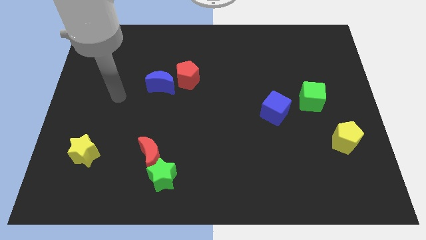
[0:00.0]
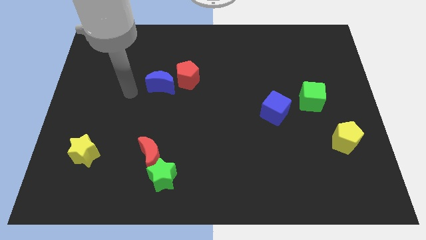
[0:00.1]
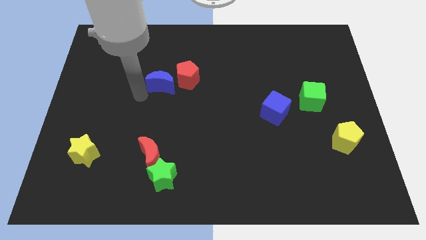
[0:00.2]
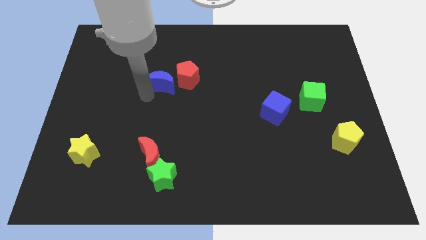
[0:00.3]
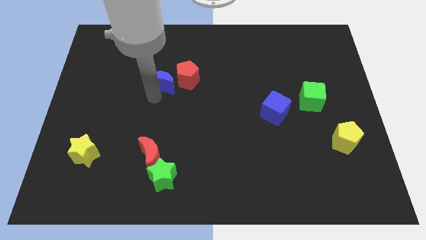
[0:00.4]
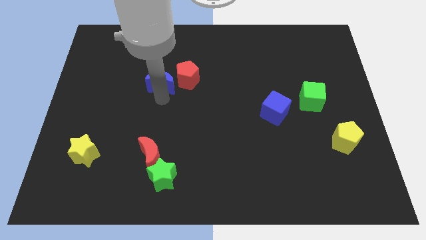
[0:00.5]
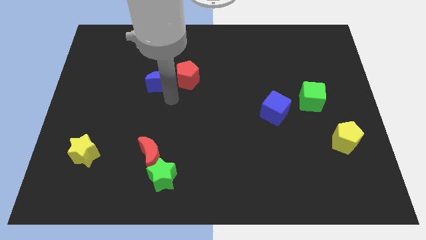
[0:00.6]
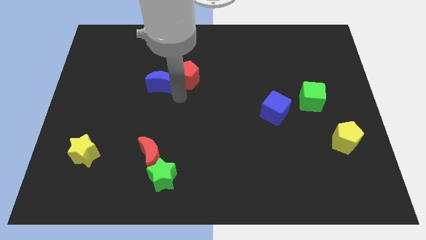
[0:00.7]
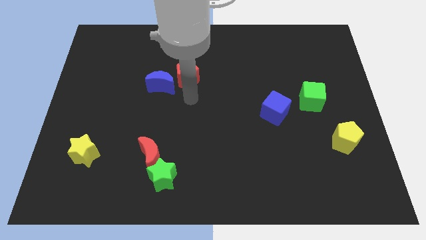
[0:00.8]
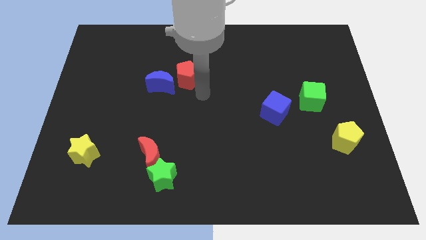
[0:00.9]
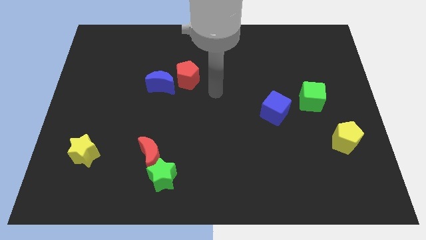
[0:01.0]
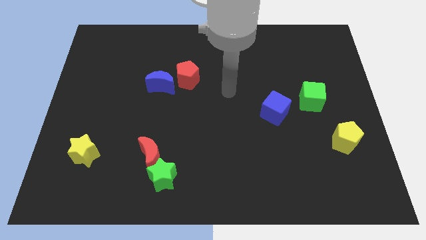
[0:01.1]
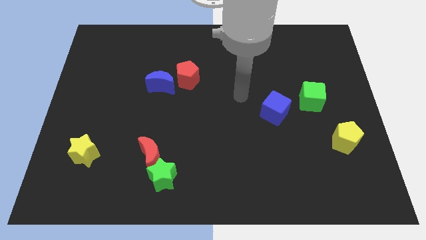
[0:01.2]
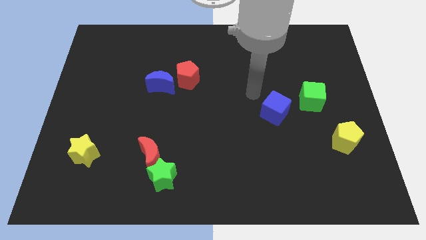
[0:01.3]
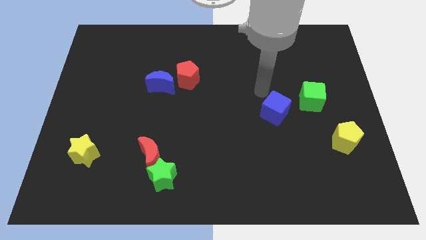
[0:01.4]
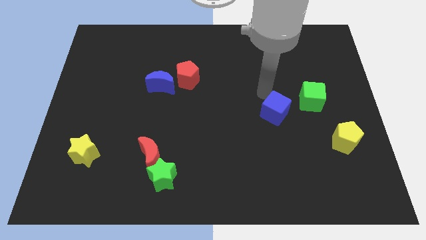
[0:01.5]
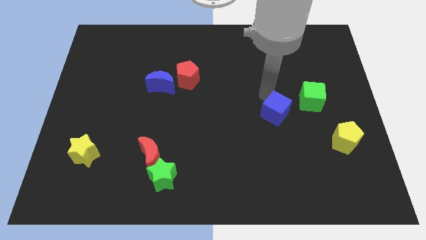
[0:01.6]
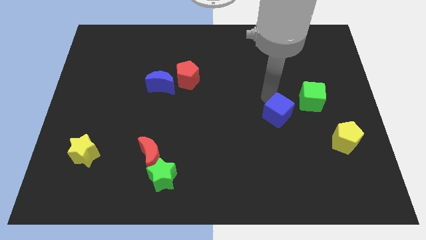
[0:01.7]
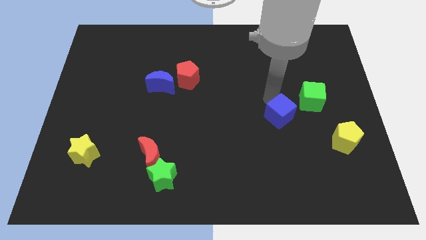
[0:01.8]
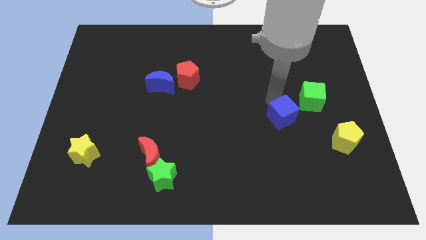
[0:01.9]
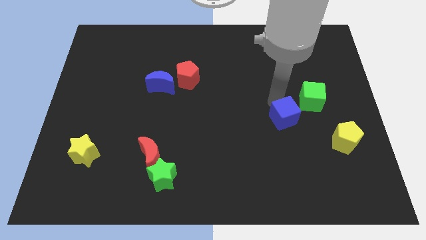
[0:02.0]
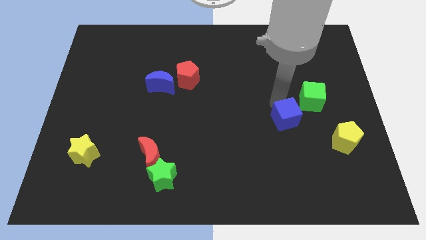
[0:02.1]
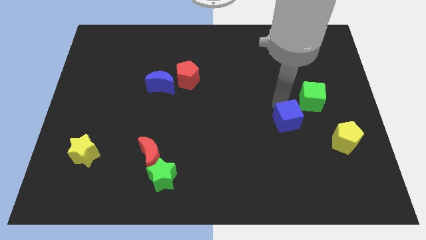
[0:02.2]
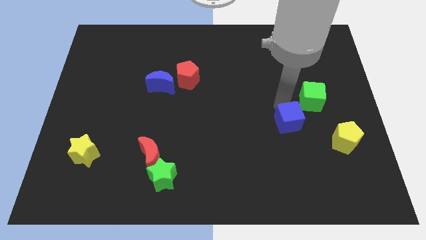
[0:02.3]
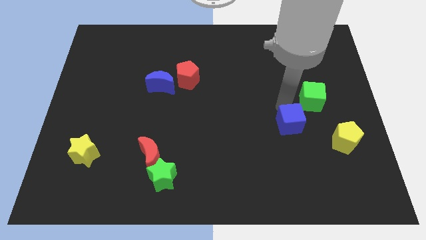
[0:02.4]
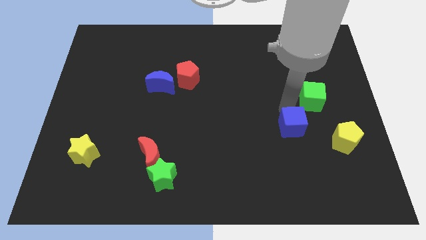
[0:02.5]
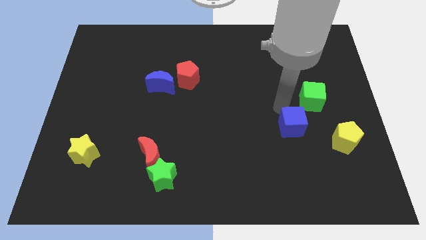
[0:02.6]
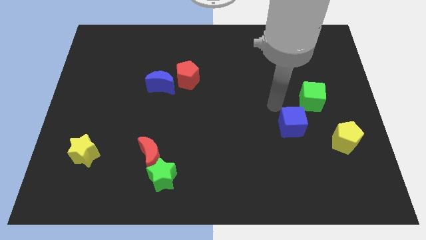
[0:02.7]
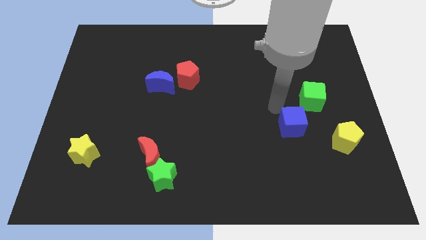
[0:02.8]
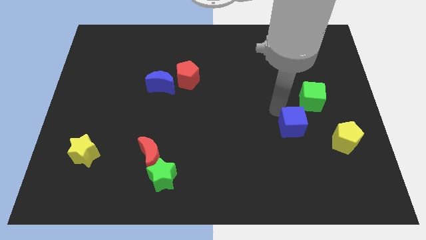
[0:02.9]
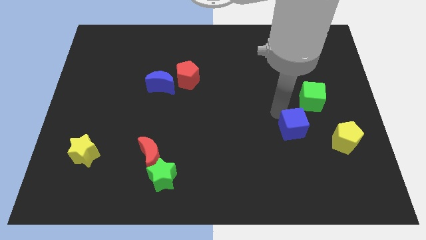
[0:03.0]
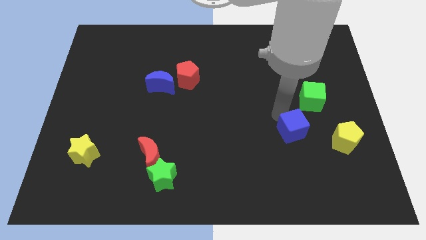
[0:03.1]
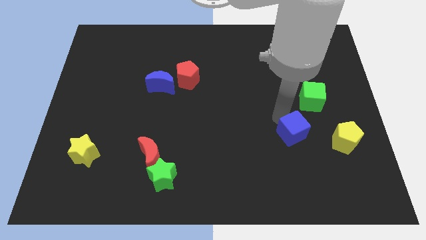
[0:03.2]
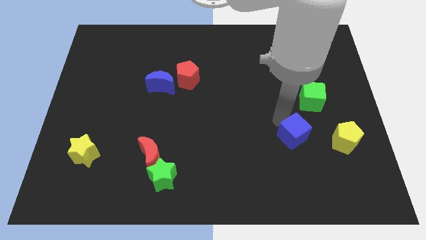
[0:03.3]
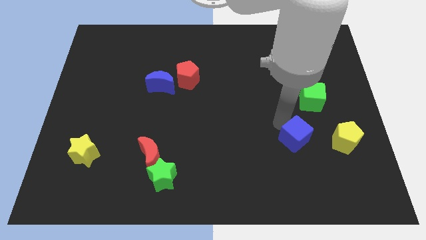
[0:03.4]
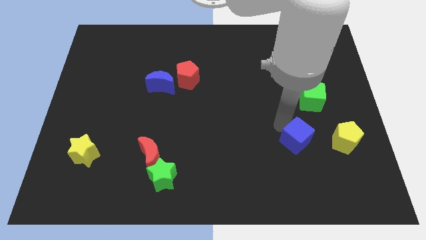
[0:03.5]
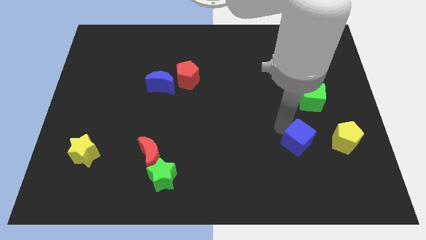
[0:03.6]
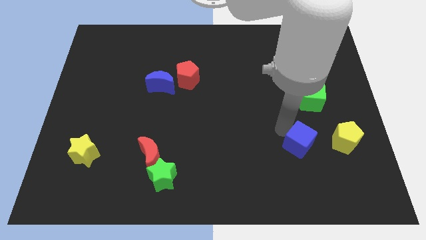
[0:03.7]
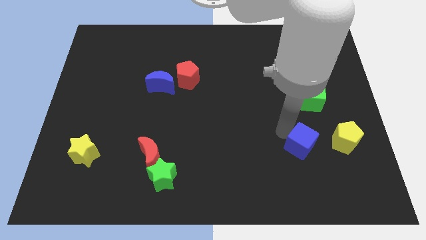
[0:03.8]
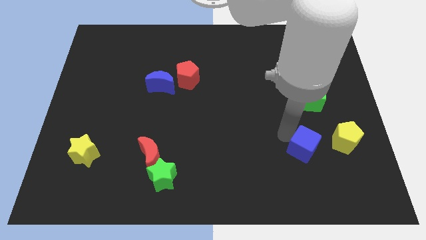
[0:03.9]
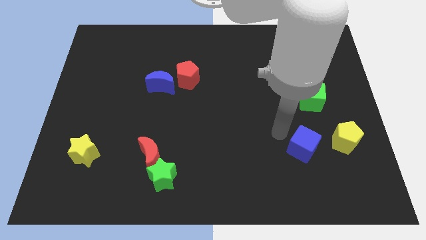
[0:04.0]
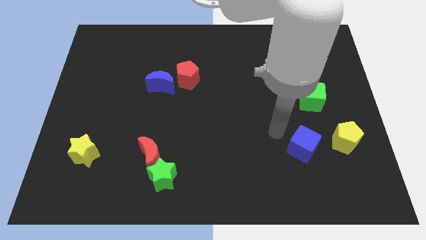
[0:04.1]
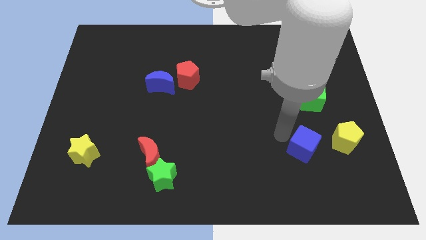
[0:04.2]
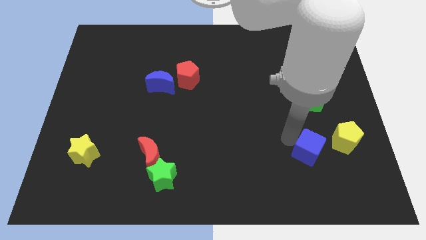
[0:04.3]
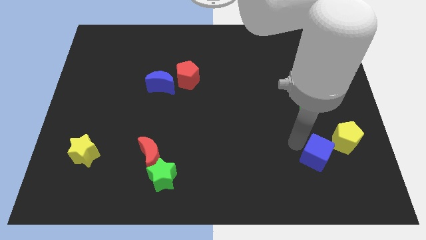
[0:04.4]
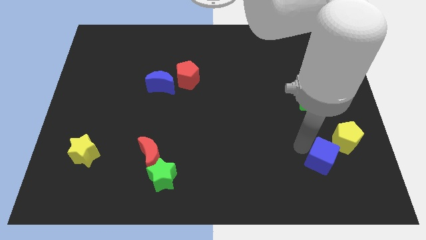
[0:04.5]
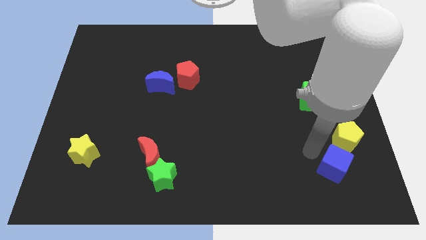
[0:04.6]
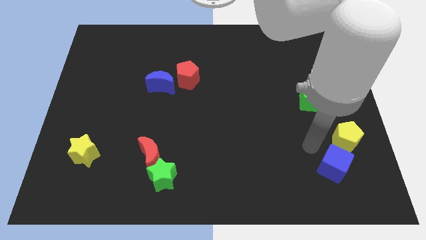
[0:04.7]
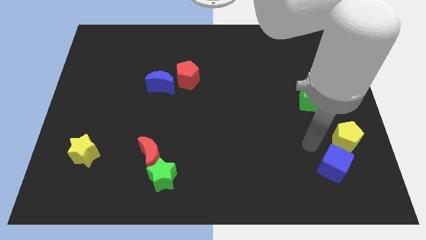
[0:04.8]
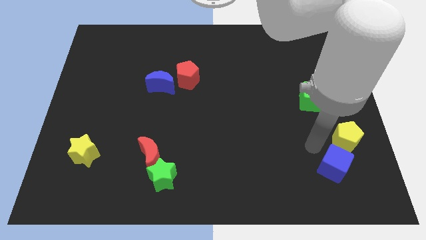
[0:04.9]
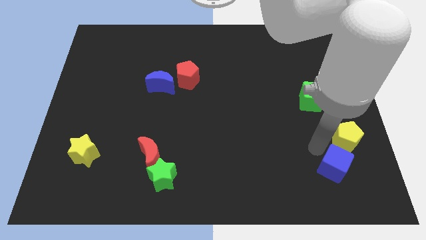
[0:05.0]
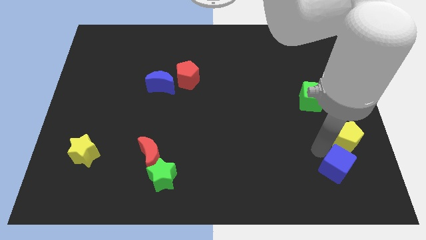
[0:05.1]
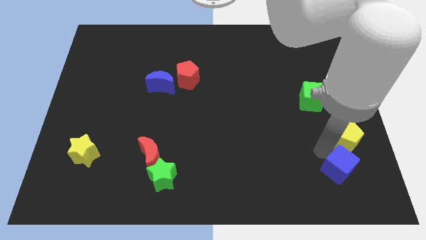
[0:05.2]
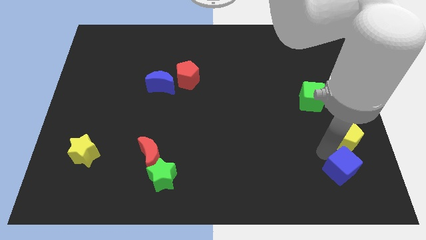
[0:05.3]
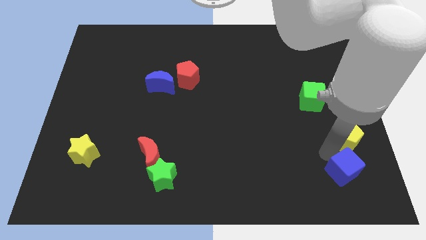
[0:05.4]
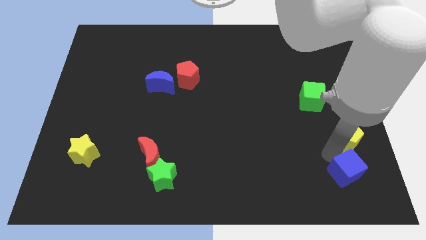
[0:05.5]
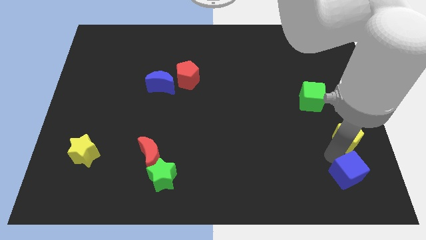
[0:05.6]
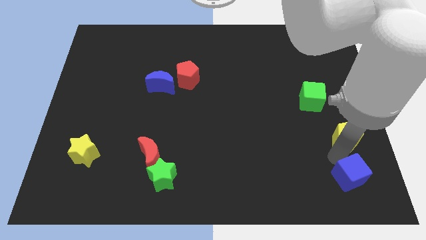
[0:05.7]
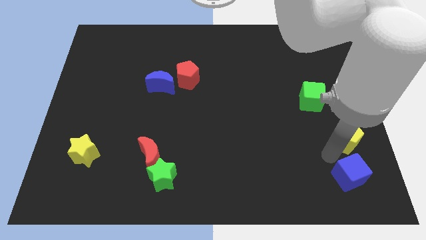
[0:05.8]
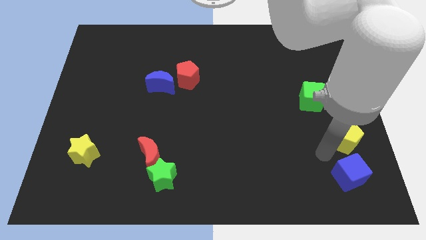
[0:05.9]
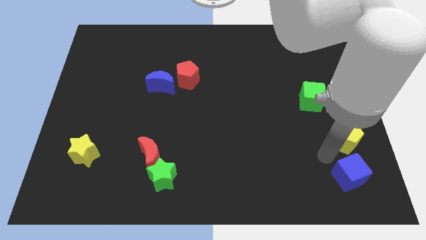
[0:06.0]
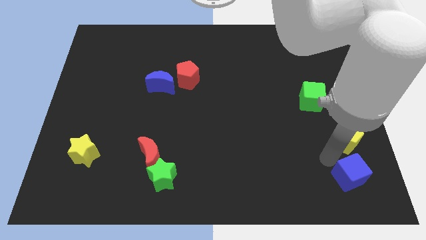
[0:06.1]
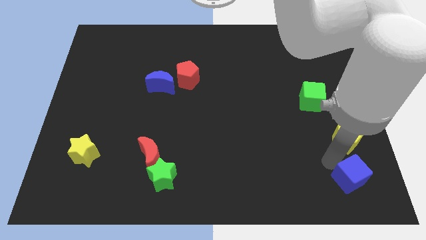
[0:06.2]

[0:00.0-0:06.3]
push the blue cube to the lower right corner
